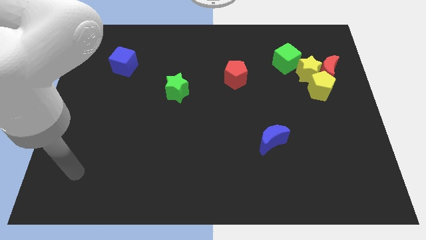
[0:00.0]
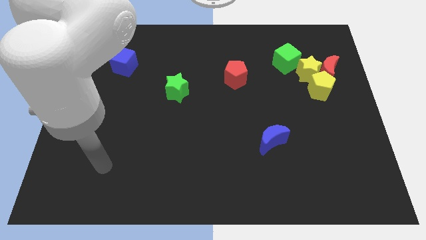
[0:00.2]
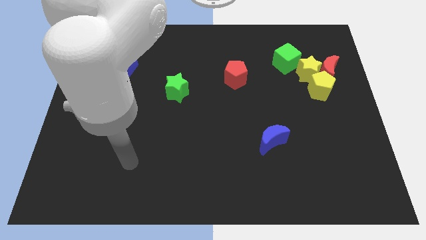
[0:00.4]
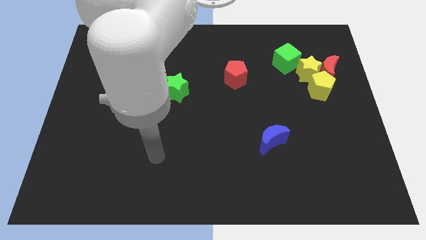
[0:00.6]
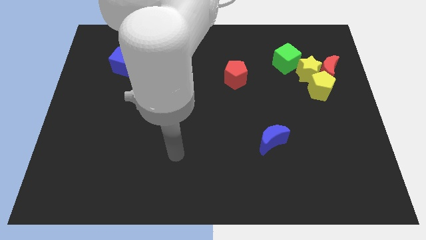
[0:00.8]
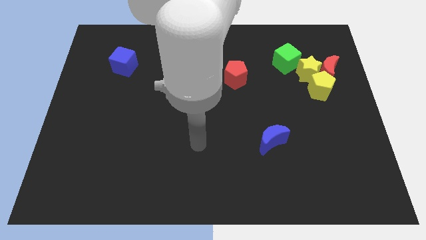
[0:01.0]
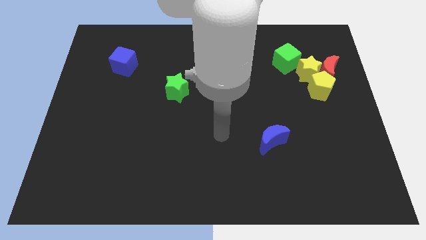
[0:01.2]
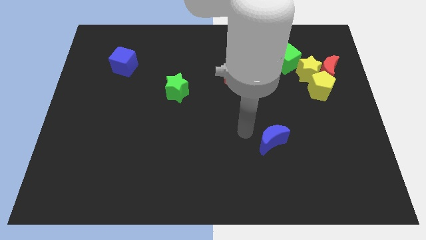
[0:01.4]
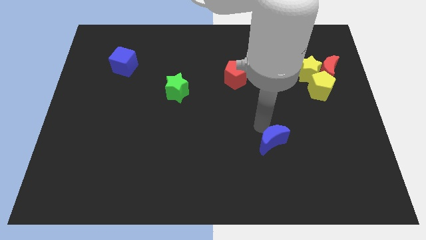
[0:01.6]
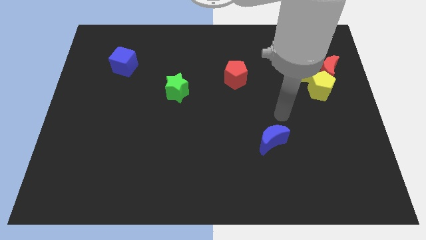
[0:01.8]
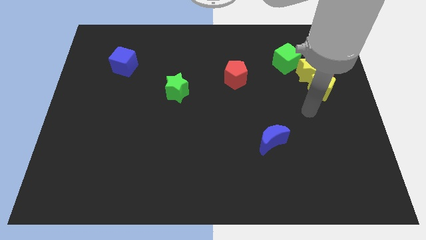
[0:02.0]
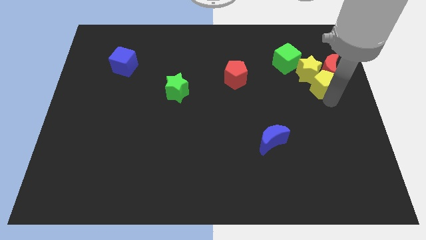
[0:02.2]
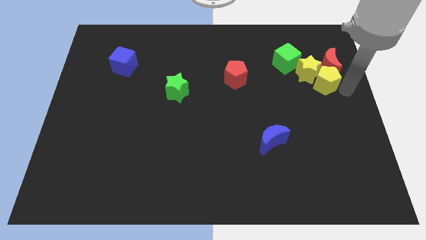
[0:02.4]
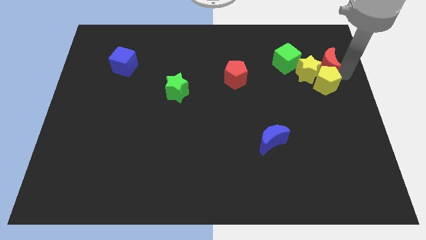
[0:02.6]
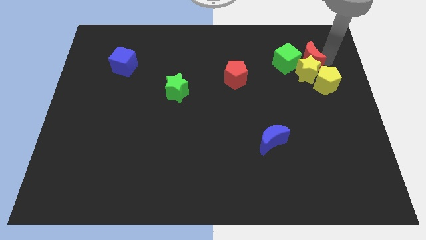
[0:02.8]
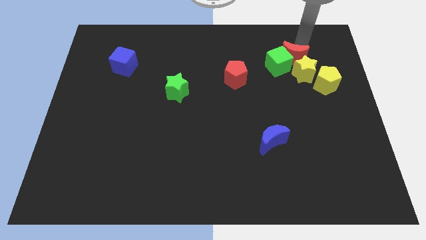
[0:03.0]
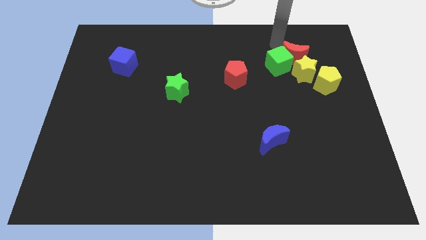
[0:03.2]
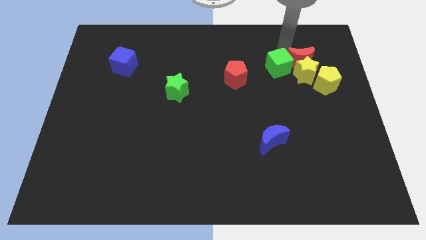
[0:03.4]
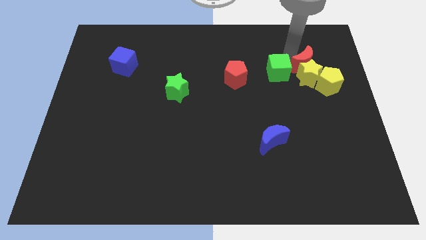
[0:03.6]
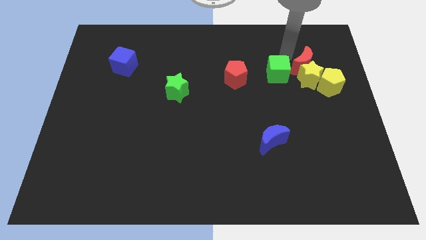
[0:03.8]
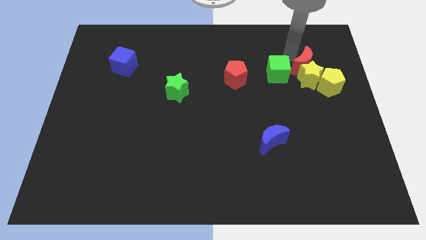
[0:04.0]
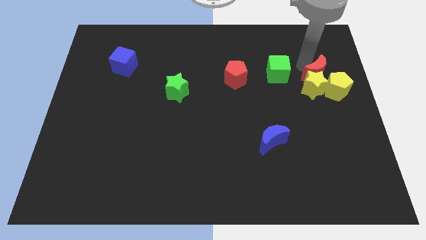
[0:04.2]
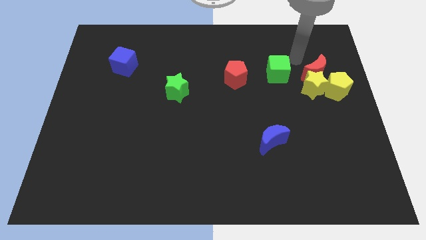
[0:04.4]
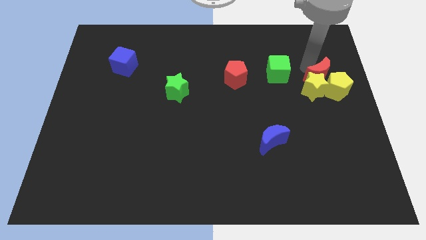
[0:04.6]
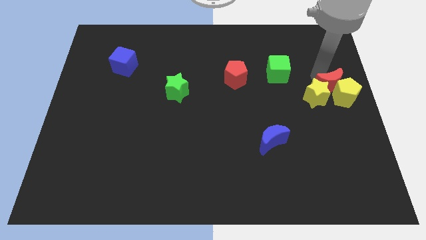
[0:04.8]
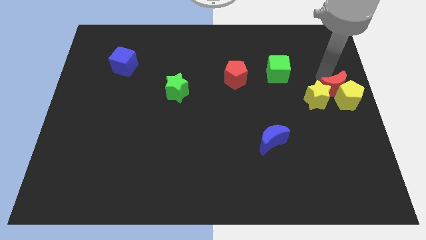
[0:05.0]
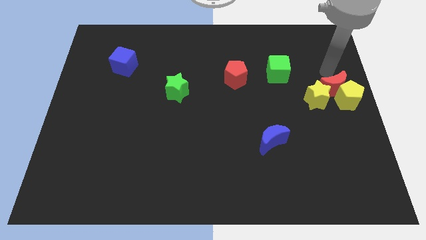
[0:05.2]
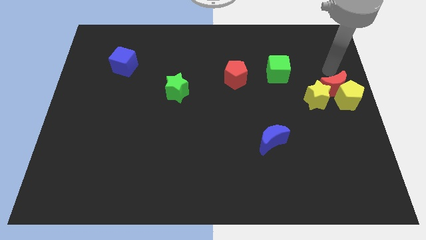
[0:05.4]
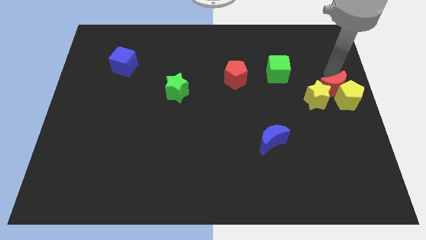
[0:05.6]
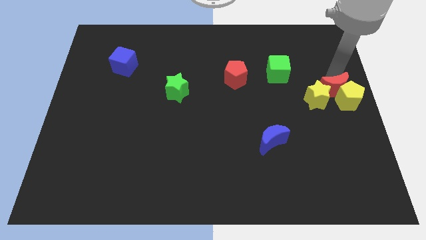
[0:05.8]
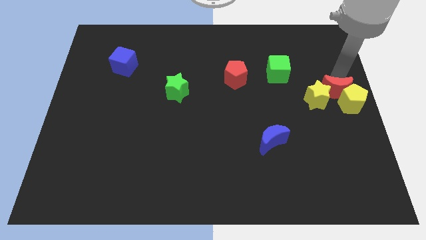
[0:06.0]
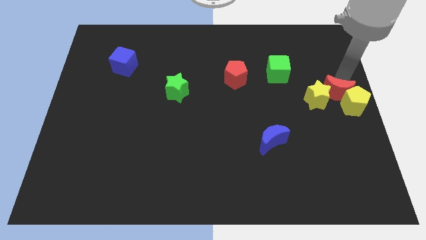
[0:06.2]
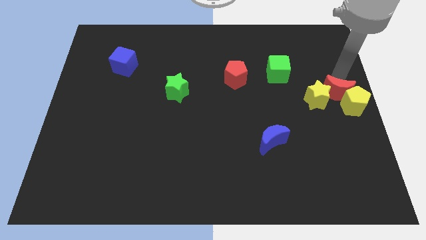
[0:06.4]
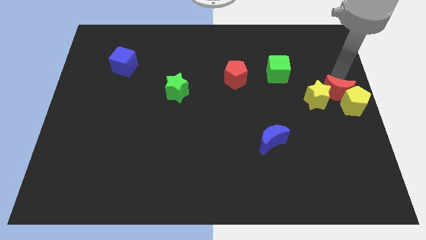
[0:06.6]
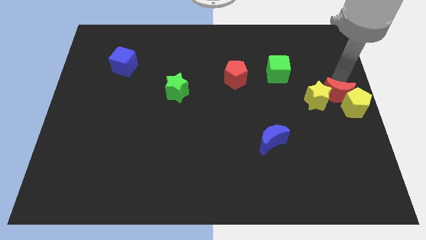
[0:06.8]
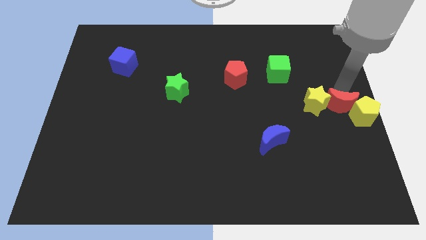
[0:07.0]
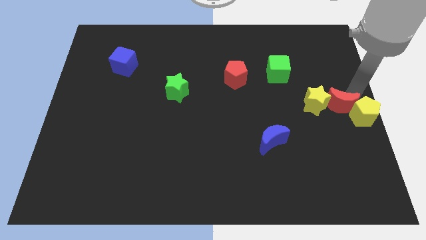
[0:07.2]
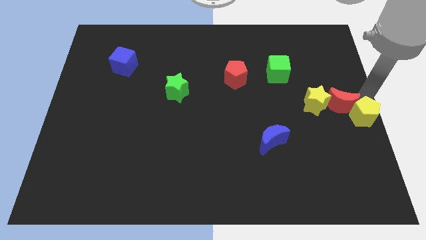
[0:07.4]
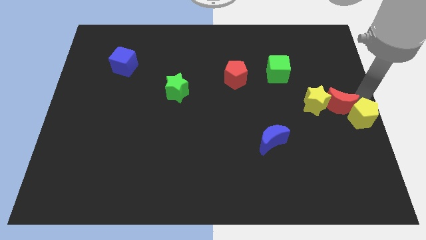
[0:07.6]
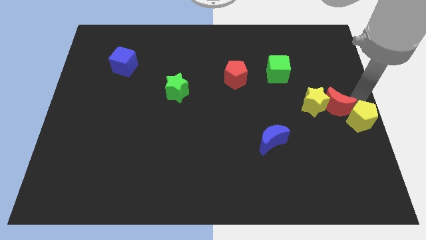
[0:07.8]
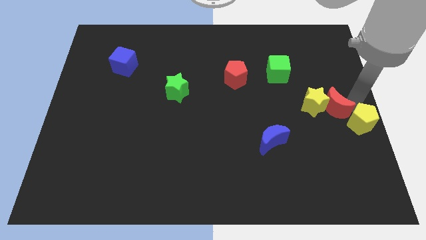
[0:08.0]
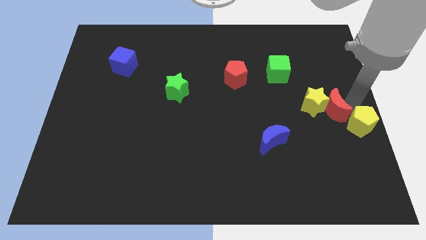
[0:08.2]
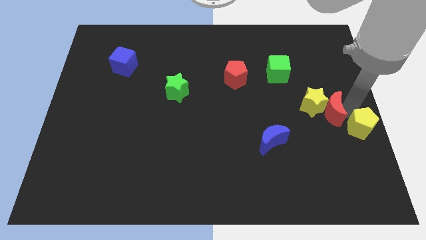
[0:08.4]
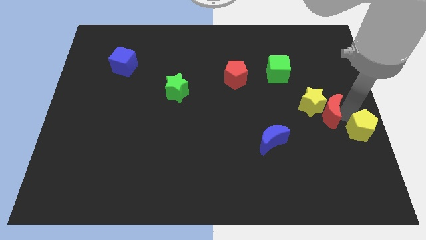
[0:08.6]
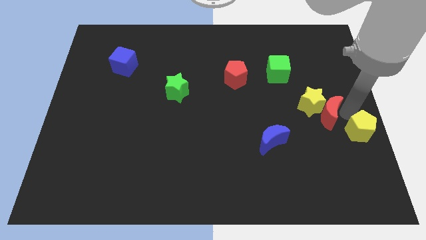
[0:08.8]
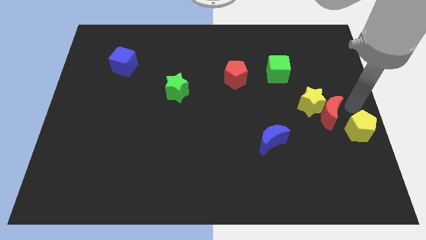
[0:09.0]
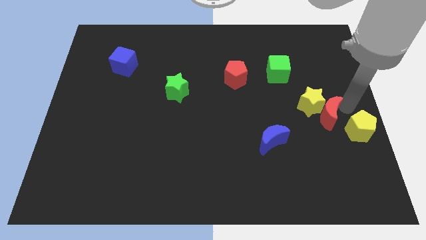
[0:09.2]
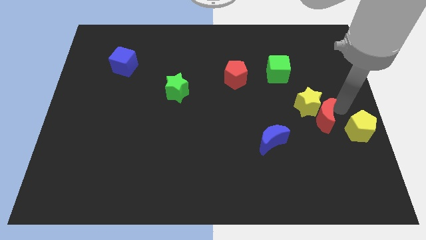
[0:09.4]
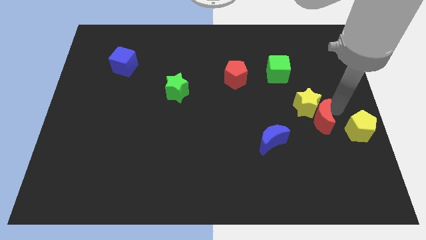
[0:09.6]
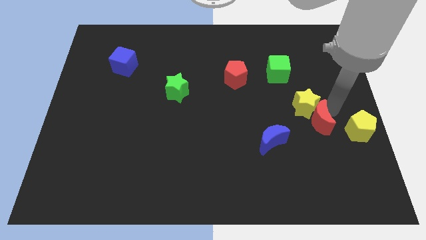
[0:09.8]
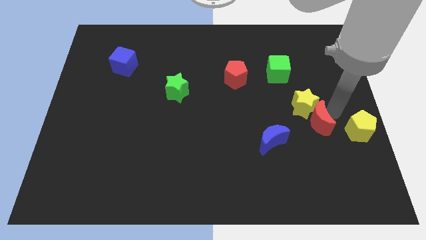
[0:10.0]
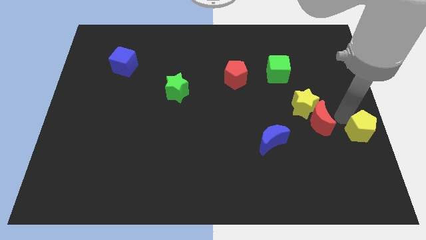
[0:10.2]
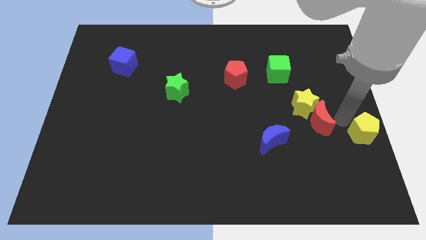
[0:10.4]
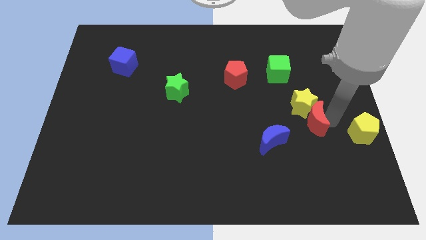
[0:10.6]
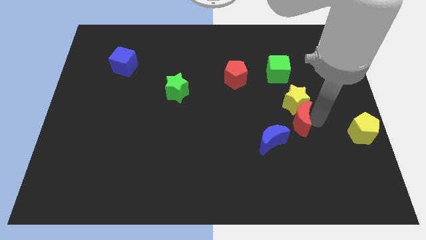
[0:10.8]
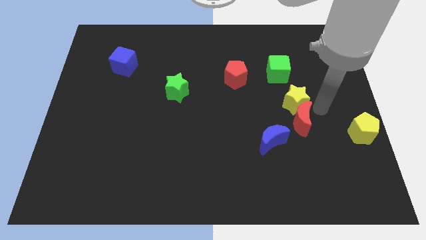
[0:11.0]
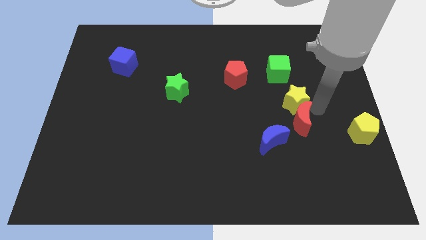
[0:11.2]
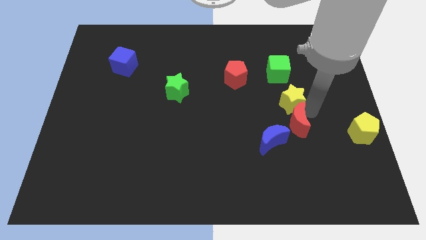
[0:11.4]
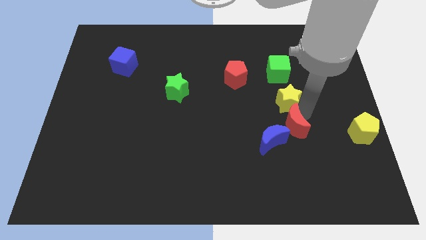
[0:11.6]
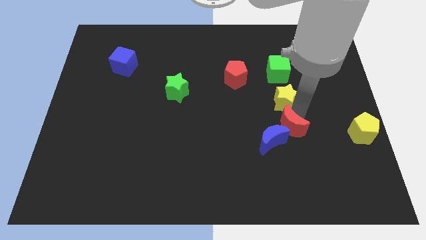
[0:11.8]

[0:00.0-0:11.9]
move the red moon next to the blue moon

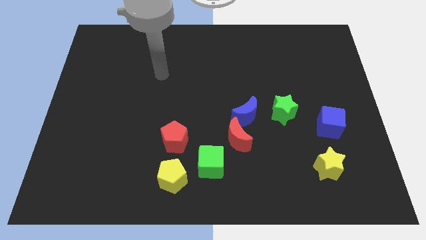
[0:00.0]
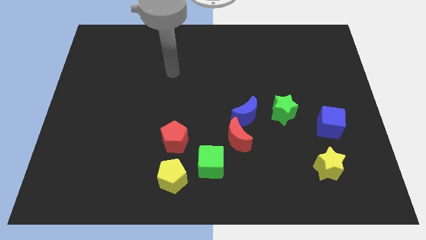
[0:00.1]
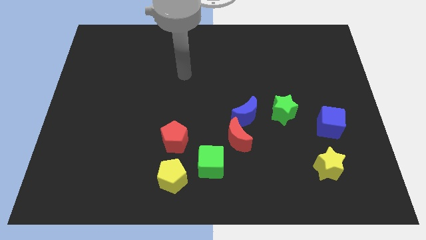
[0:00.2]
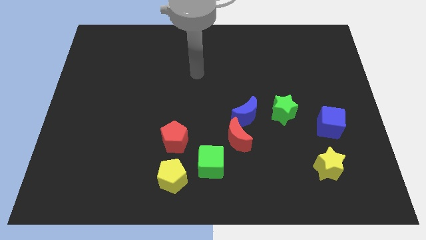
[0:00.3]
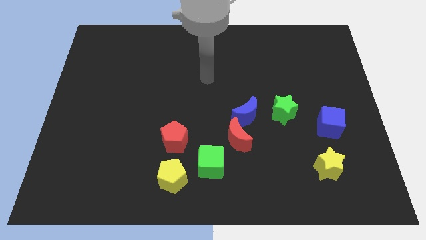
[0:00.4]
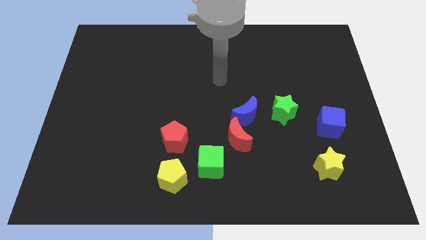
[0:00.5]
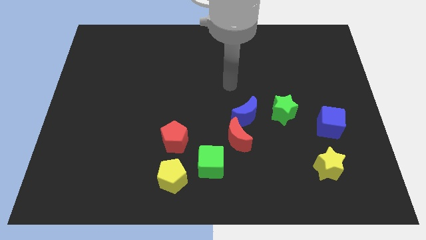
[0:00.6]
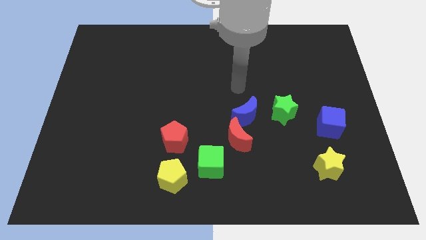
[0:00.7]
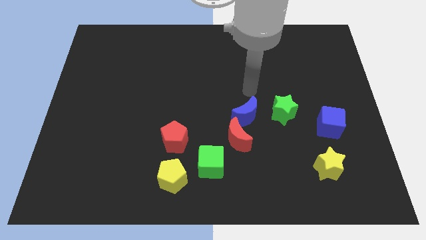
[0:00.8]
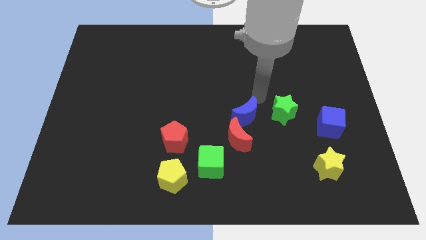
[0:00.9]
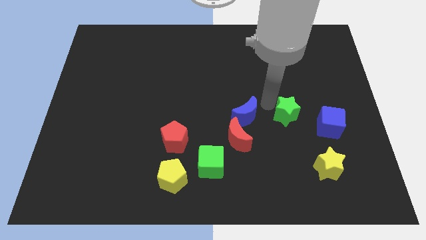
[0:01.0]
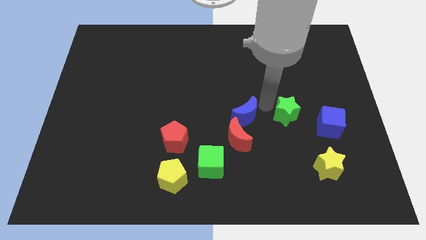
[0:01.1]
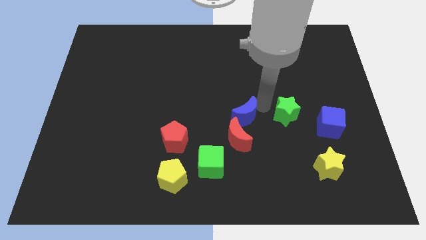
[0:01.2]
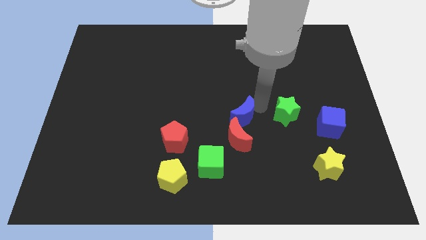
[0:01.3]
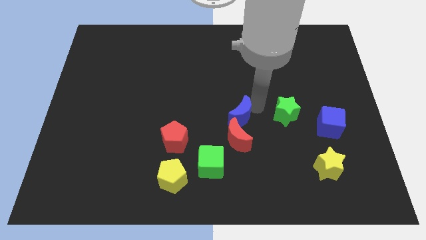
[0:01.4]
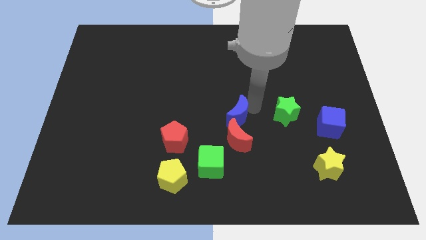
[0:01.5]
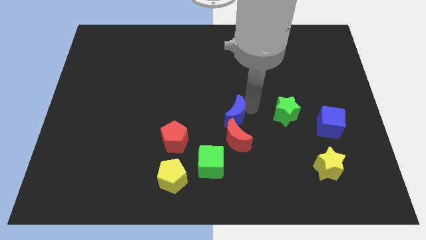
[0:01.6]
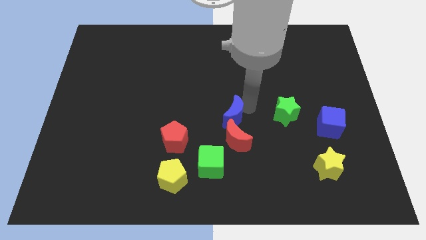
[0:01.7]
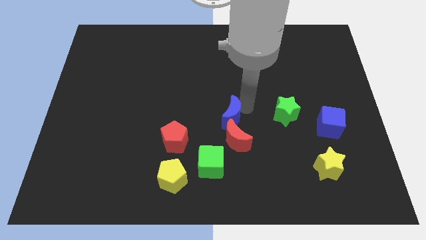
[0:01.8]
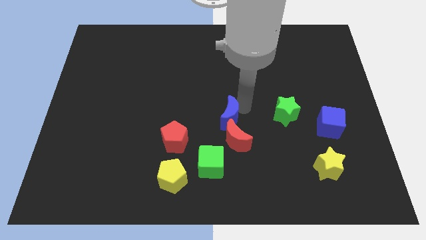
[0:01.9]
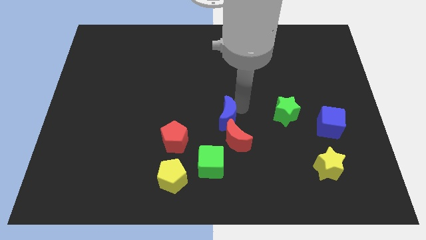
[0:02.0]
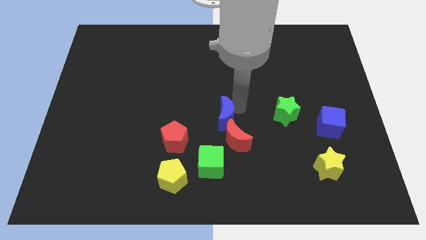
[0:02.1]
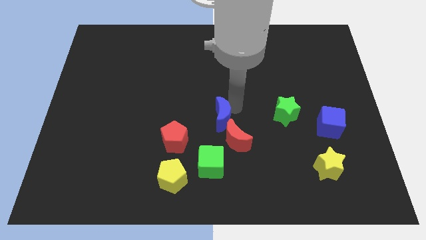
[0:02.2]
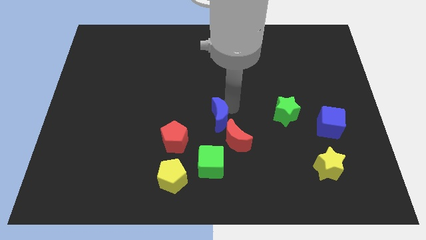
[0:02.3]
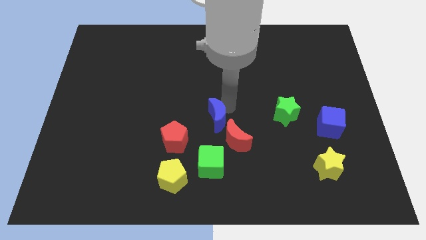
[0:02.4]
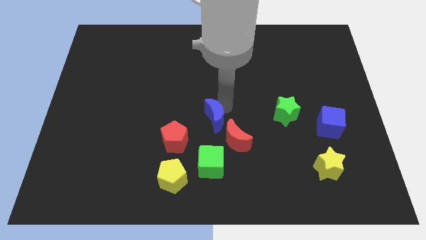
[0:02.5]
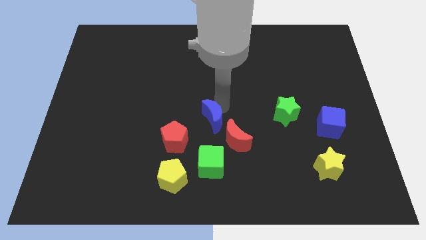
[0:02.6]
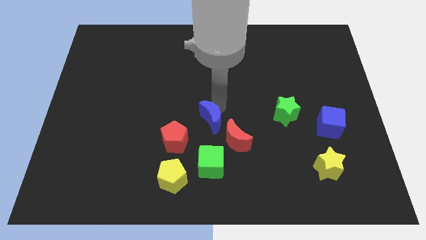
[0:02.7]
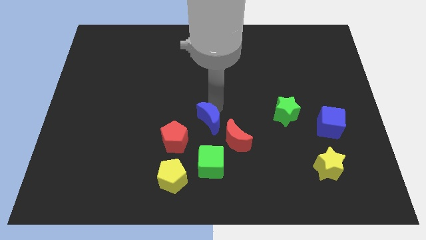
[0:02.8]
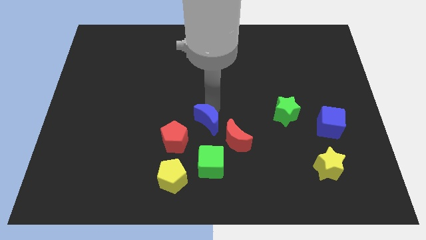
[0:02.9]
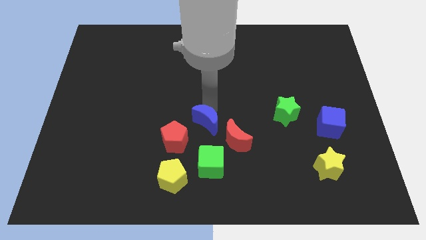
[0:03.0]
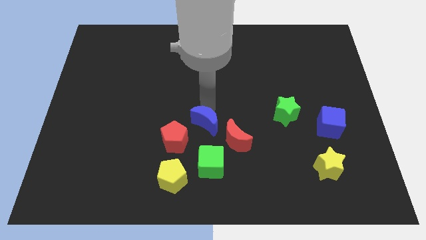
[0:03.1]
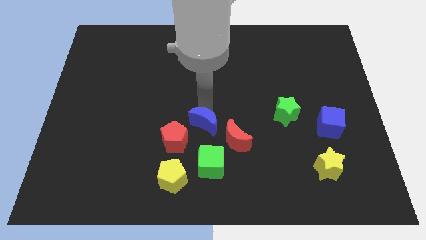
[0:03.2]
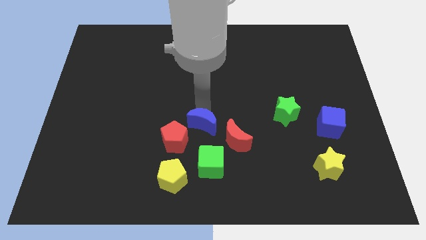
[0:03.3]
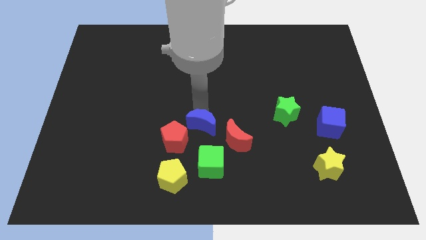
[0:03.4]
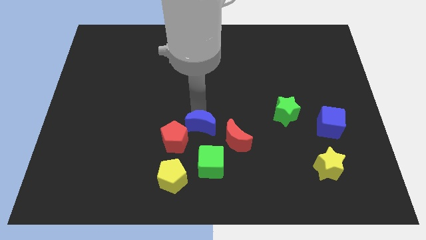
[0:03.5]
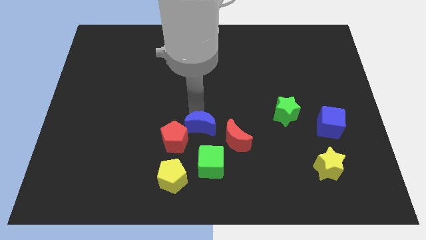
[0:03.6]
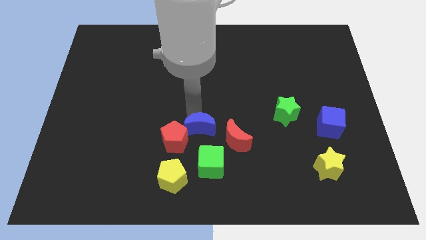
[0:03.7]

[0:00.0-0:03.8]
put the blue moon to the red pentagon
